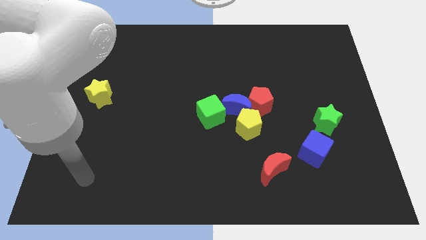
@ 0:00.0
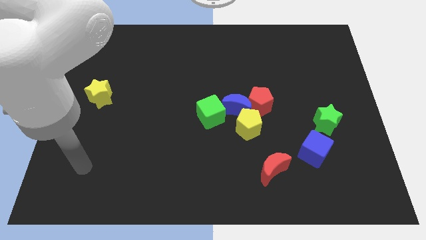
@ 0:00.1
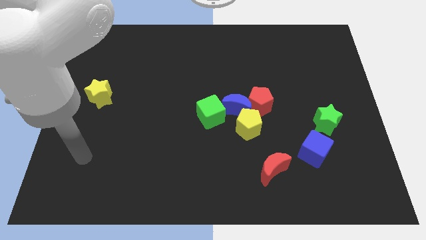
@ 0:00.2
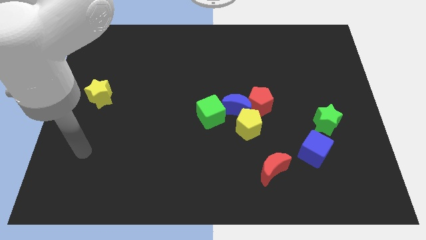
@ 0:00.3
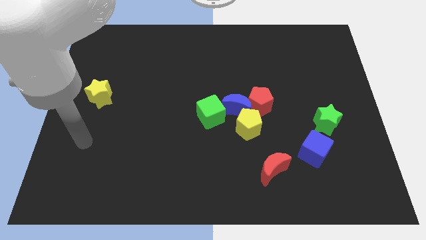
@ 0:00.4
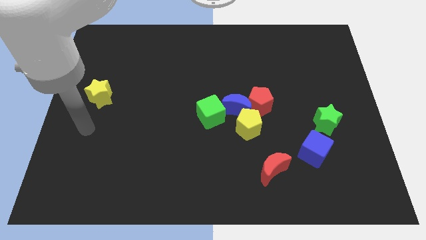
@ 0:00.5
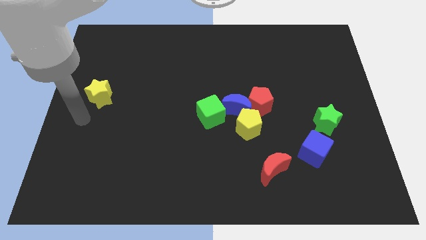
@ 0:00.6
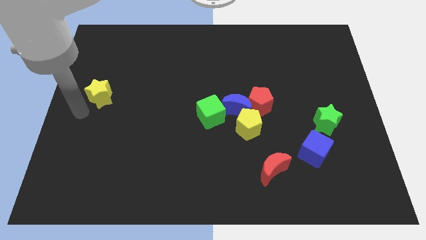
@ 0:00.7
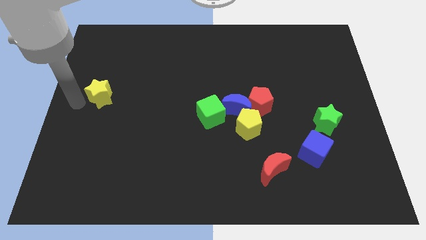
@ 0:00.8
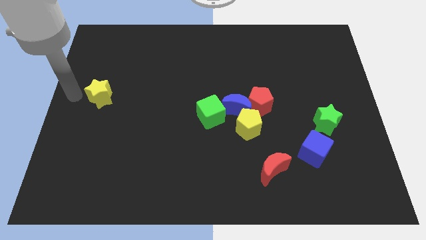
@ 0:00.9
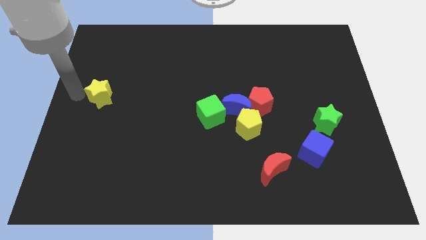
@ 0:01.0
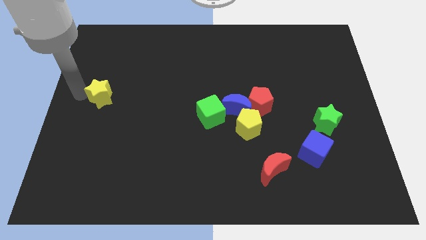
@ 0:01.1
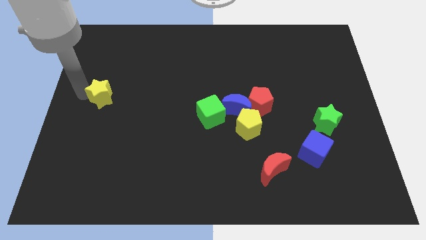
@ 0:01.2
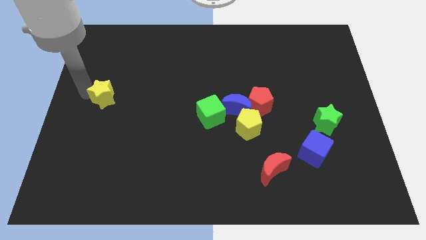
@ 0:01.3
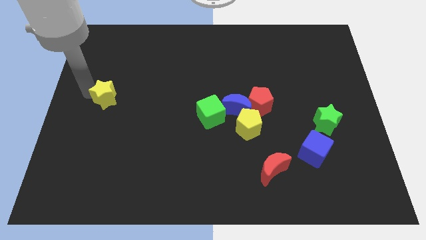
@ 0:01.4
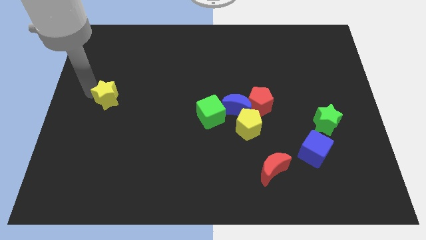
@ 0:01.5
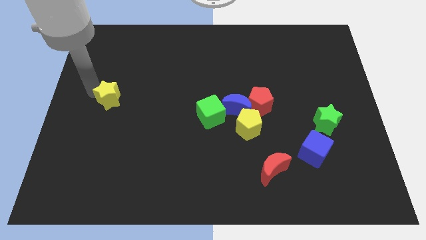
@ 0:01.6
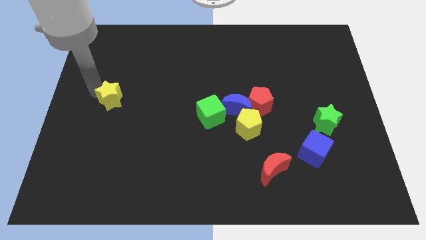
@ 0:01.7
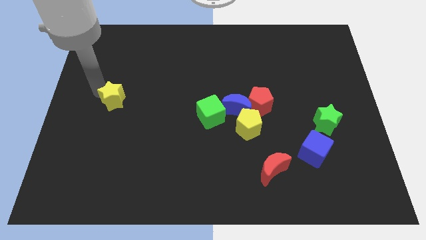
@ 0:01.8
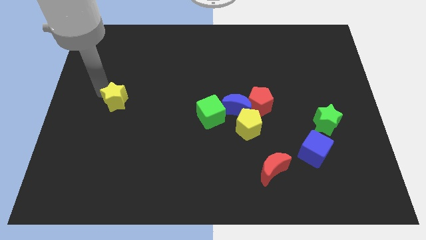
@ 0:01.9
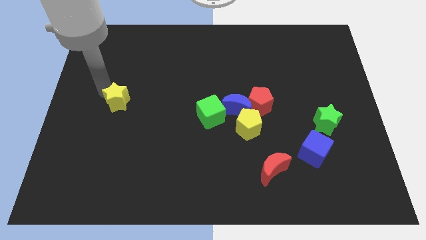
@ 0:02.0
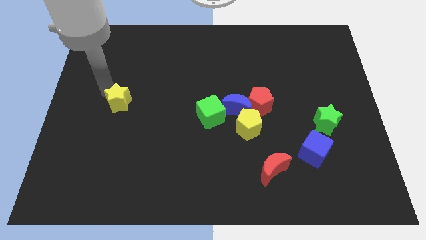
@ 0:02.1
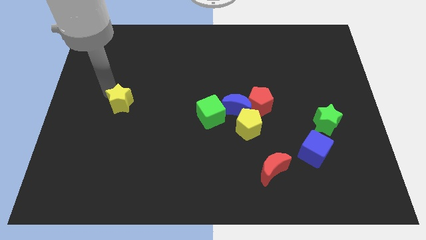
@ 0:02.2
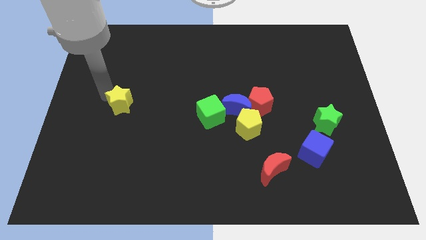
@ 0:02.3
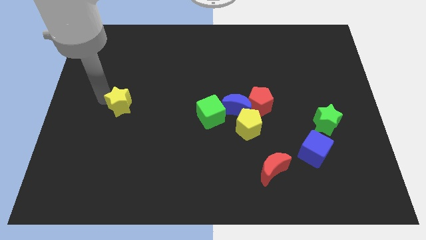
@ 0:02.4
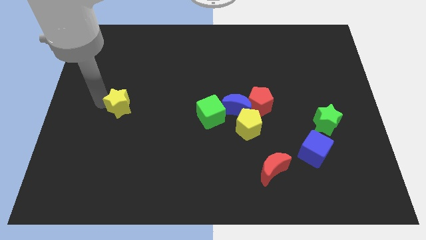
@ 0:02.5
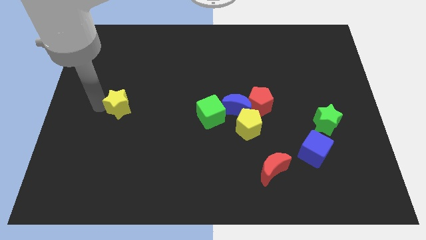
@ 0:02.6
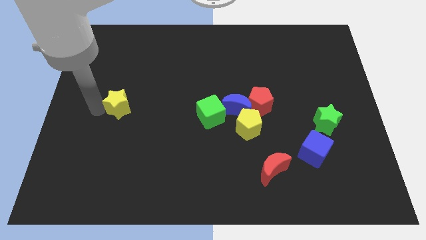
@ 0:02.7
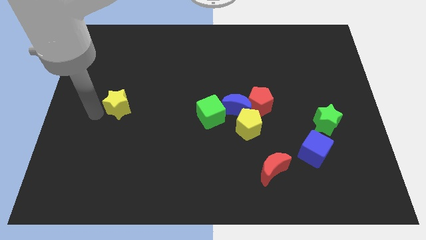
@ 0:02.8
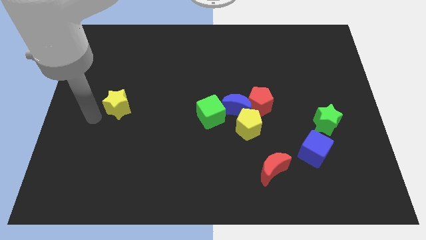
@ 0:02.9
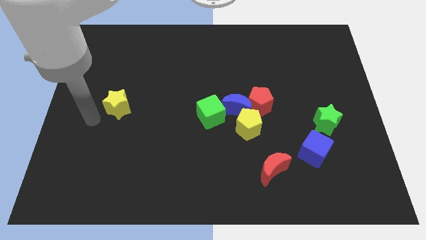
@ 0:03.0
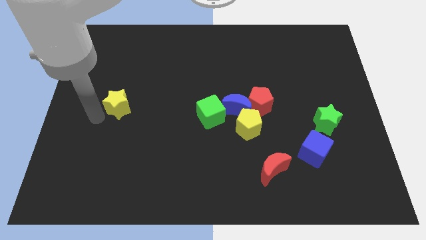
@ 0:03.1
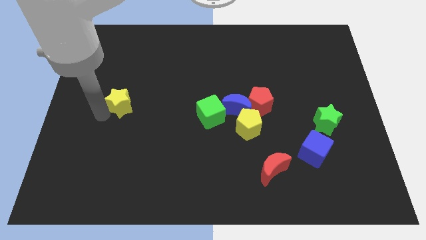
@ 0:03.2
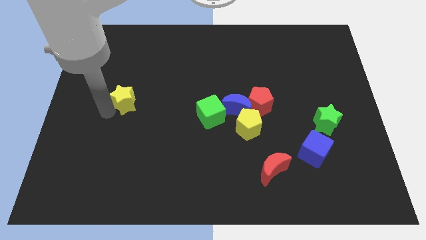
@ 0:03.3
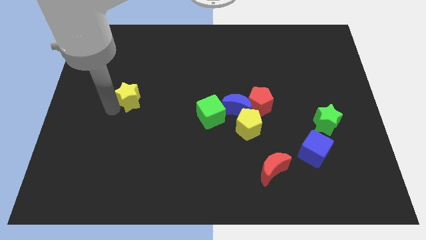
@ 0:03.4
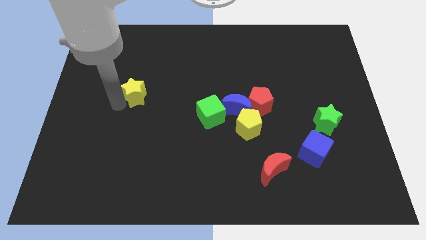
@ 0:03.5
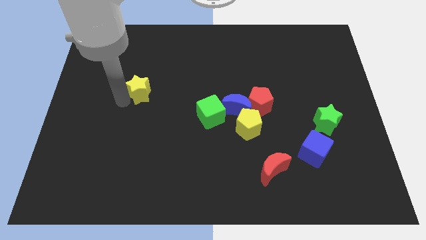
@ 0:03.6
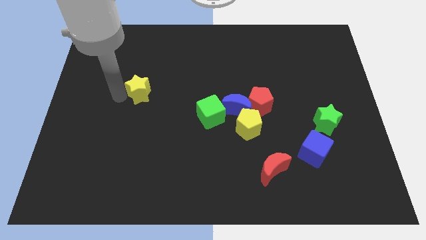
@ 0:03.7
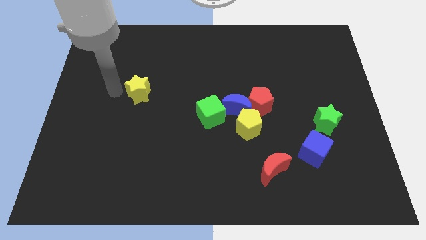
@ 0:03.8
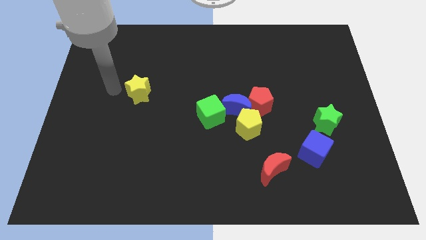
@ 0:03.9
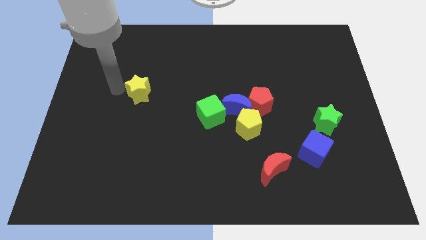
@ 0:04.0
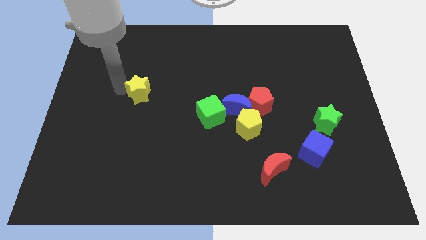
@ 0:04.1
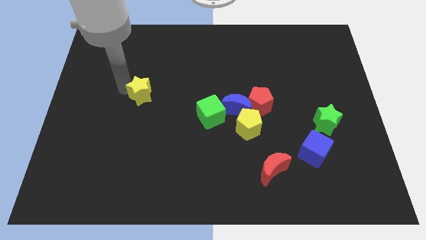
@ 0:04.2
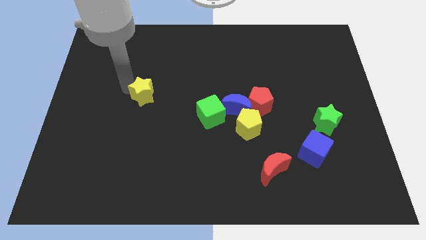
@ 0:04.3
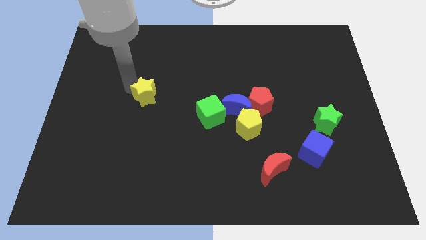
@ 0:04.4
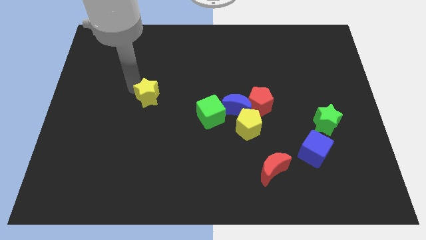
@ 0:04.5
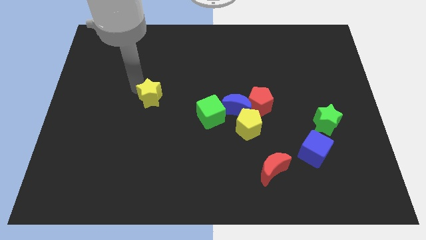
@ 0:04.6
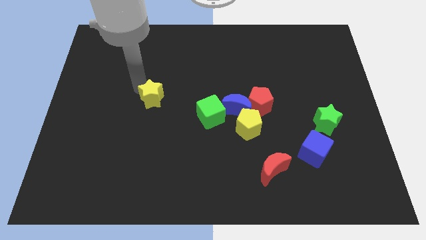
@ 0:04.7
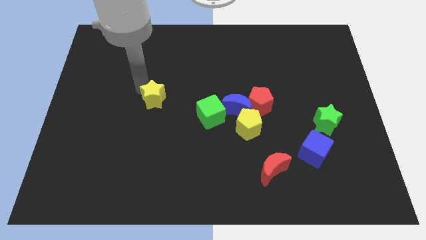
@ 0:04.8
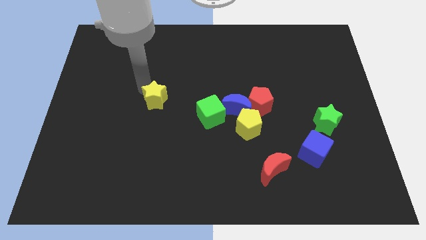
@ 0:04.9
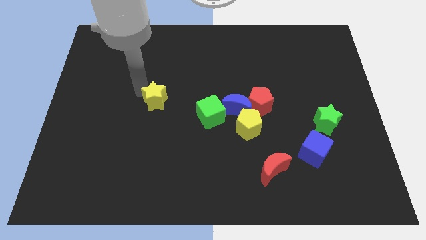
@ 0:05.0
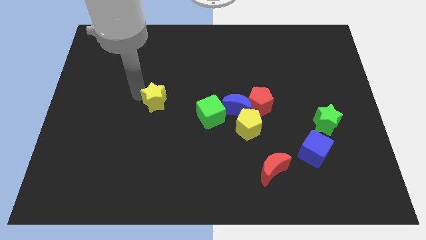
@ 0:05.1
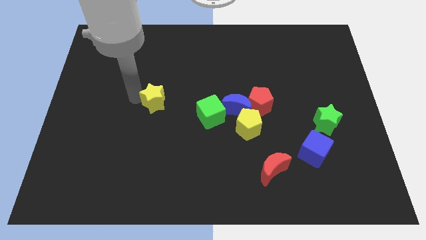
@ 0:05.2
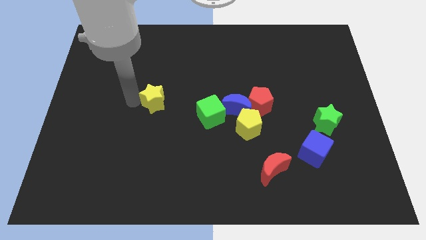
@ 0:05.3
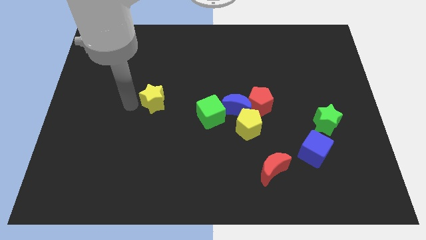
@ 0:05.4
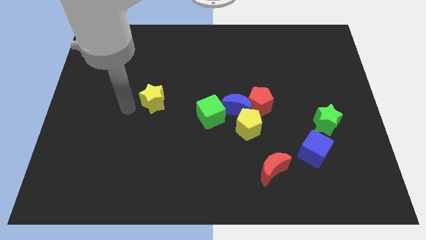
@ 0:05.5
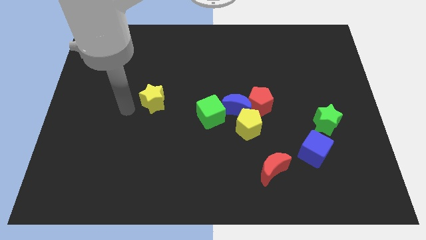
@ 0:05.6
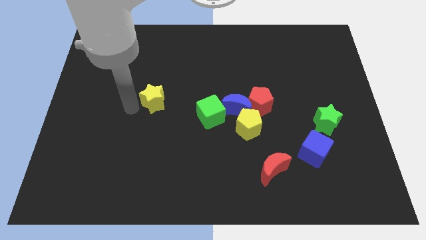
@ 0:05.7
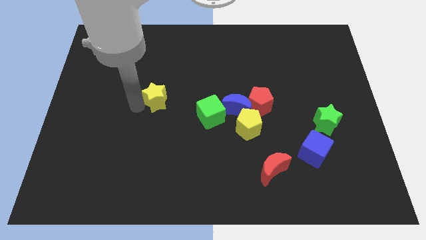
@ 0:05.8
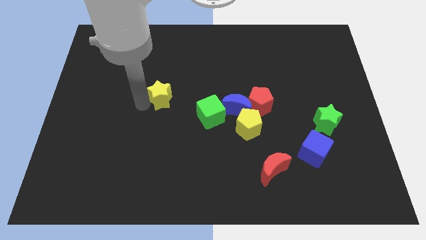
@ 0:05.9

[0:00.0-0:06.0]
push the yellow star to the center
